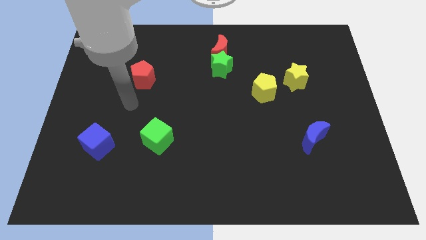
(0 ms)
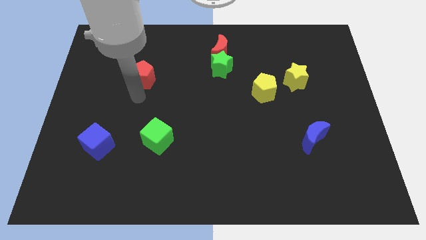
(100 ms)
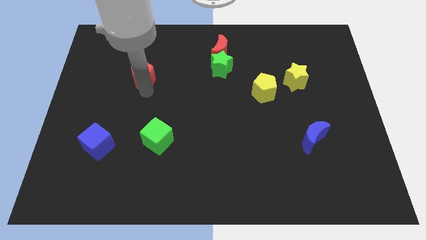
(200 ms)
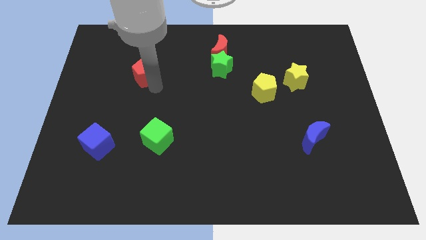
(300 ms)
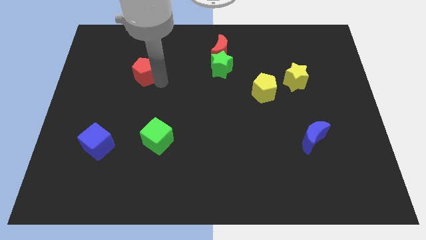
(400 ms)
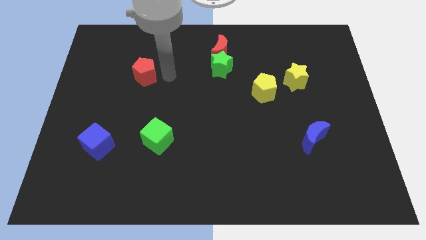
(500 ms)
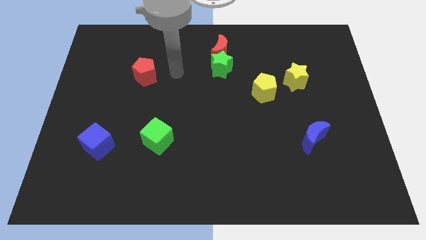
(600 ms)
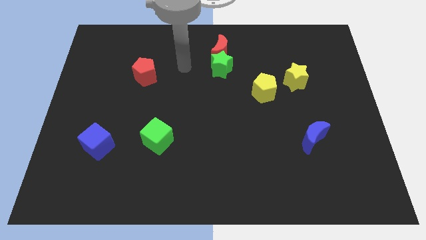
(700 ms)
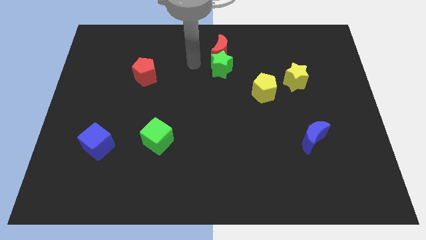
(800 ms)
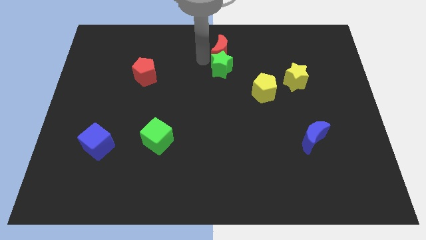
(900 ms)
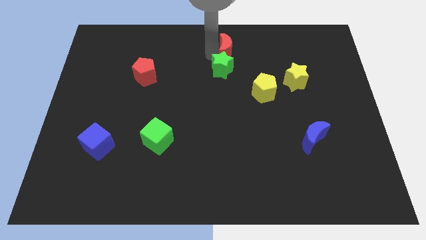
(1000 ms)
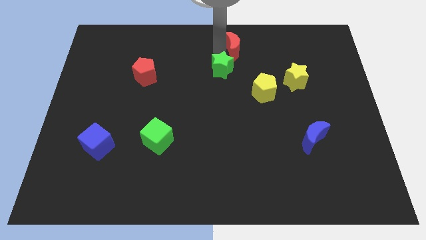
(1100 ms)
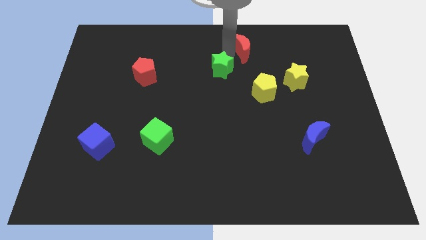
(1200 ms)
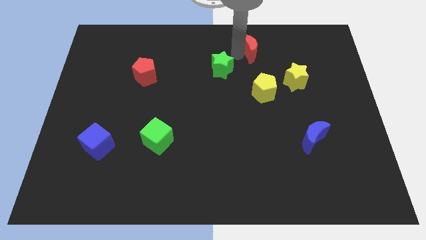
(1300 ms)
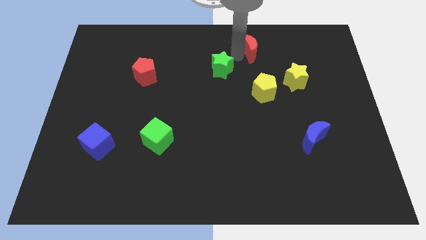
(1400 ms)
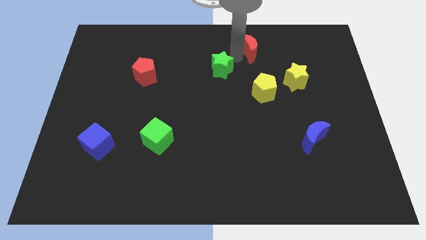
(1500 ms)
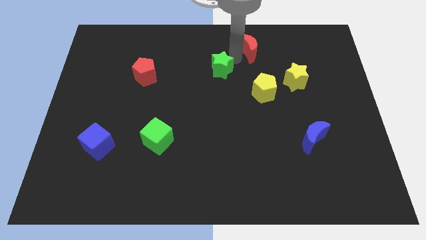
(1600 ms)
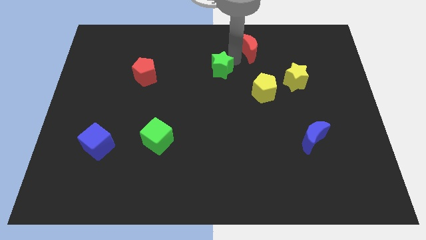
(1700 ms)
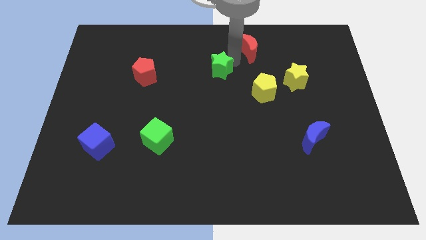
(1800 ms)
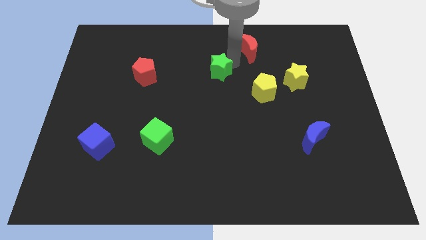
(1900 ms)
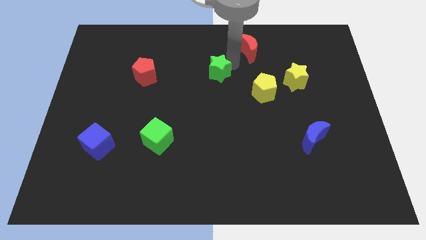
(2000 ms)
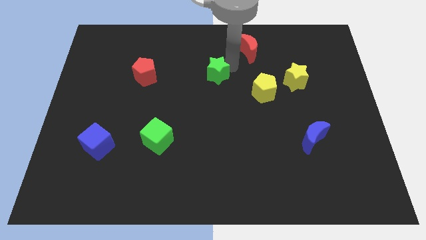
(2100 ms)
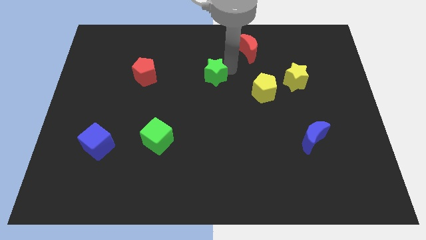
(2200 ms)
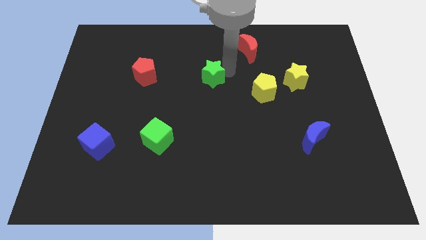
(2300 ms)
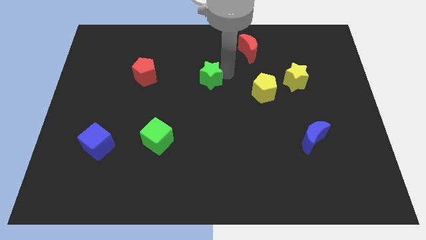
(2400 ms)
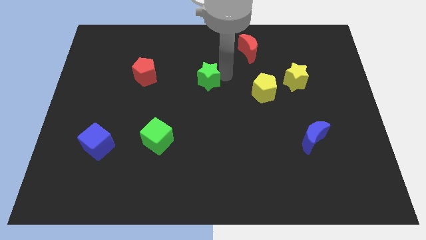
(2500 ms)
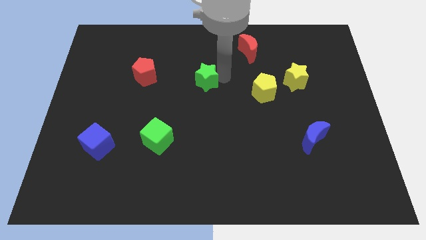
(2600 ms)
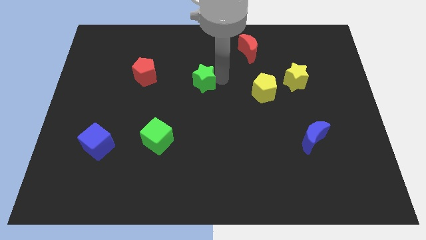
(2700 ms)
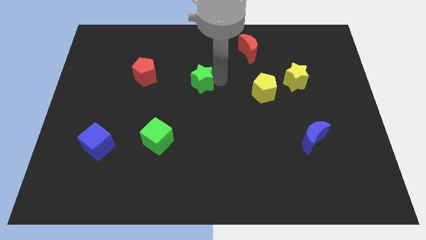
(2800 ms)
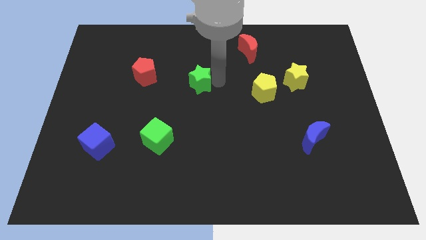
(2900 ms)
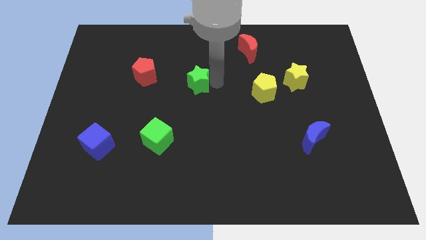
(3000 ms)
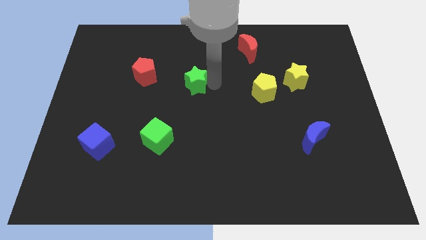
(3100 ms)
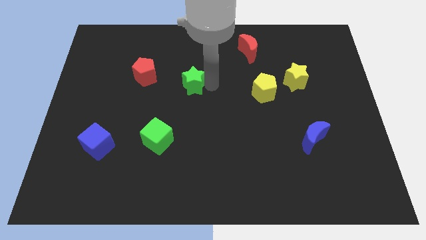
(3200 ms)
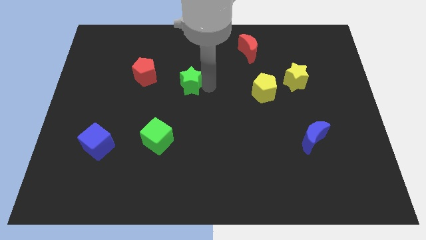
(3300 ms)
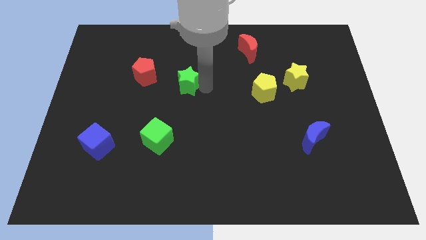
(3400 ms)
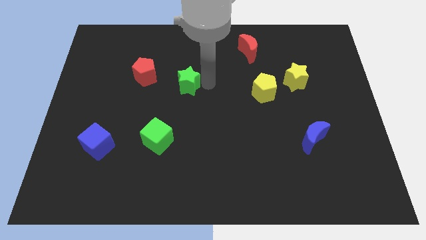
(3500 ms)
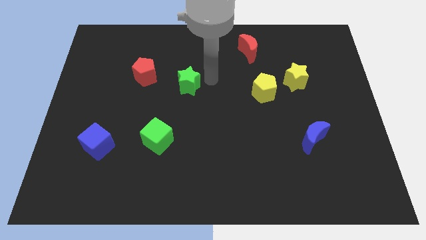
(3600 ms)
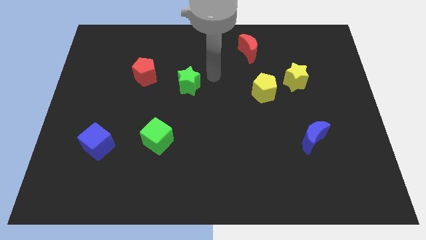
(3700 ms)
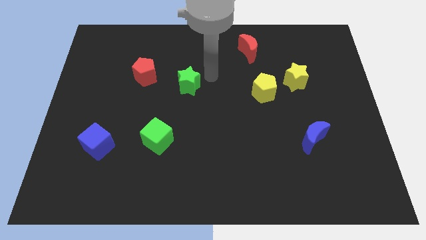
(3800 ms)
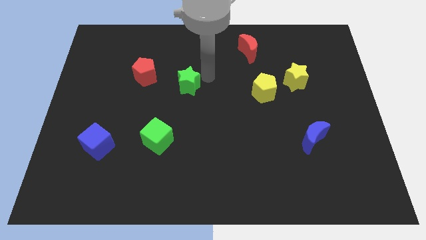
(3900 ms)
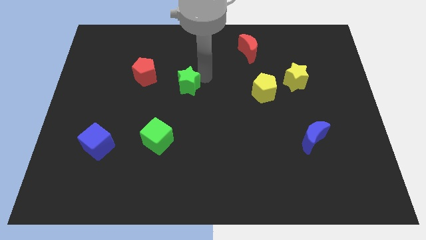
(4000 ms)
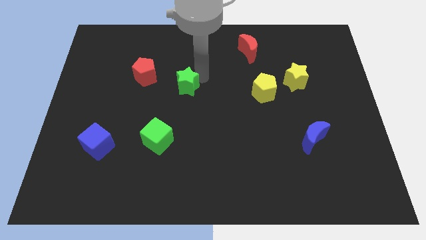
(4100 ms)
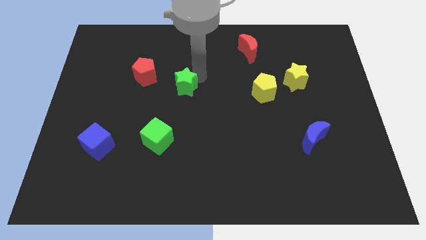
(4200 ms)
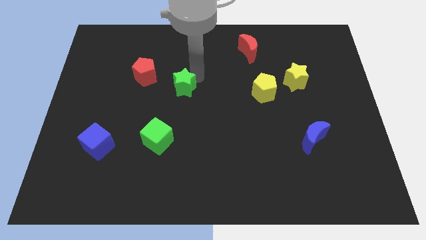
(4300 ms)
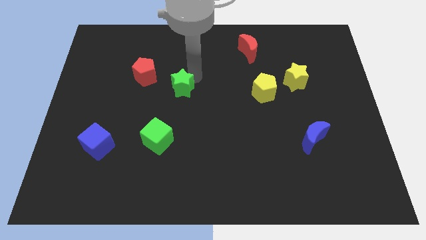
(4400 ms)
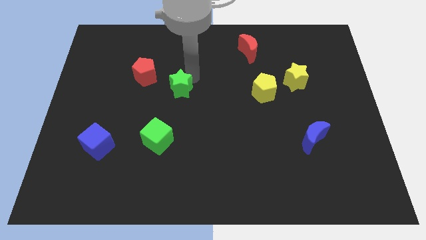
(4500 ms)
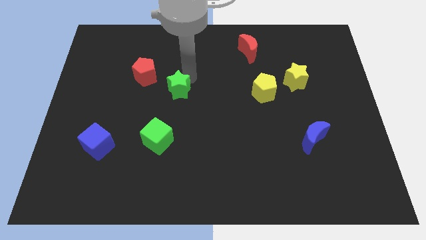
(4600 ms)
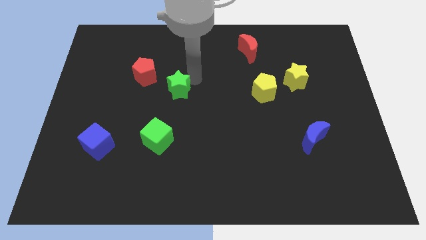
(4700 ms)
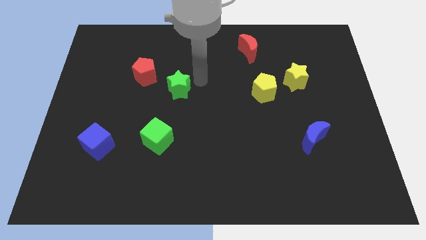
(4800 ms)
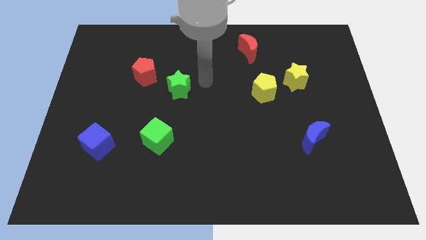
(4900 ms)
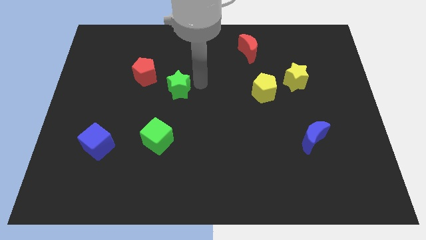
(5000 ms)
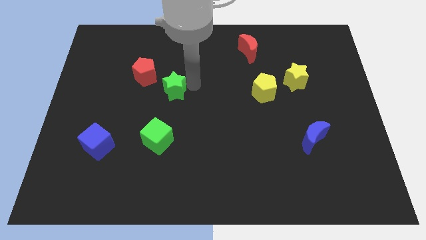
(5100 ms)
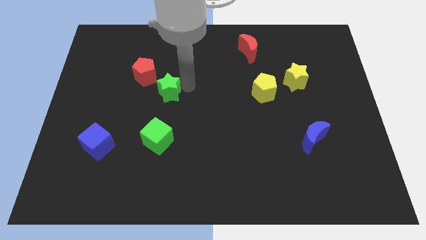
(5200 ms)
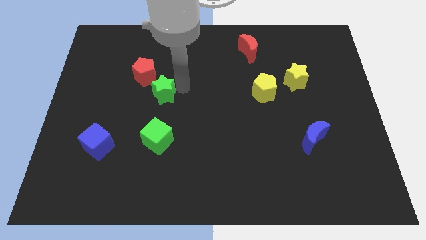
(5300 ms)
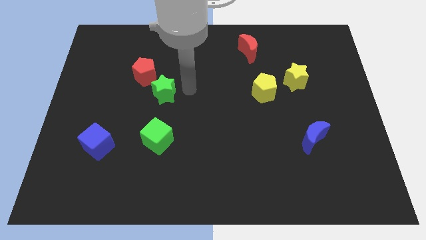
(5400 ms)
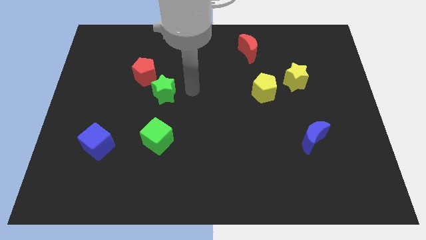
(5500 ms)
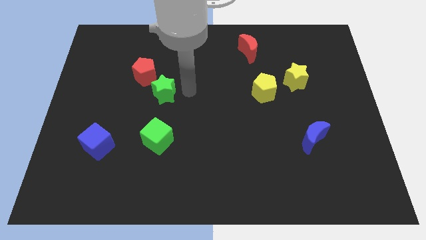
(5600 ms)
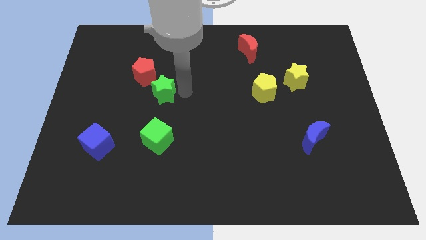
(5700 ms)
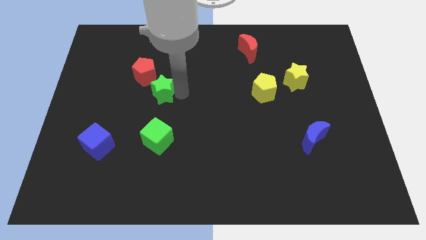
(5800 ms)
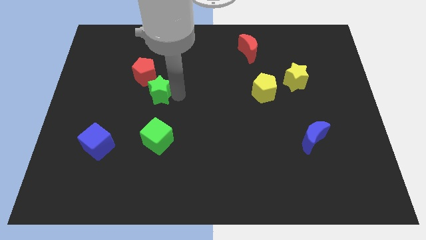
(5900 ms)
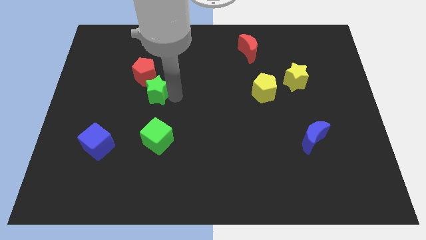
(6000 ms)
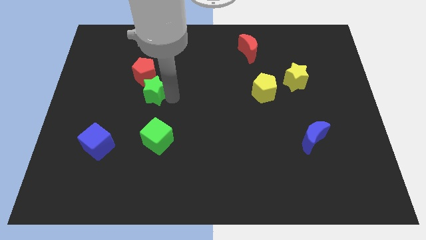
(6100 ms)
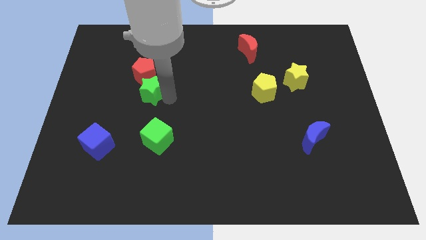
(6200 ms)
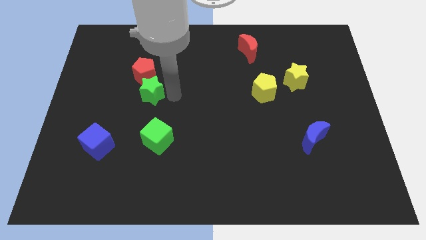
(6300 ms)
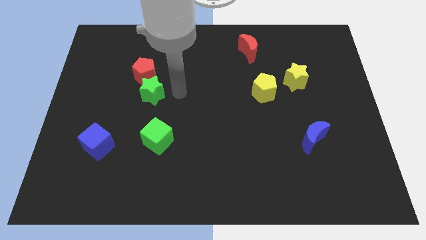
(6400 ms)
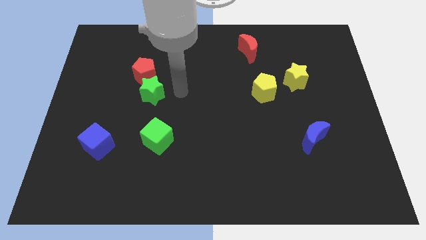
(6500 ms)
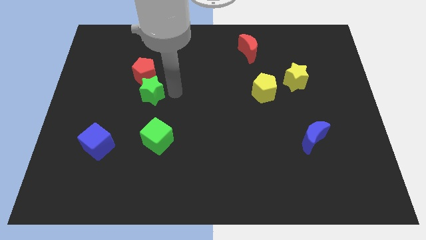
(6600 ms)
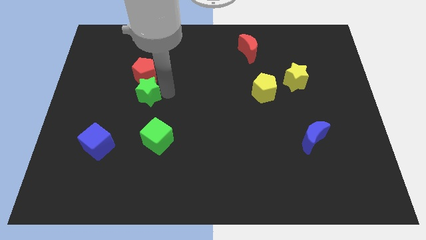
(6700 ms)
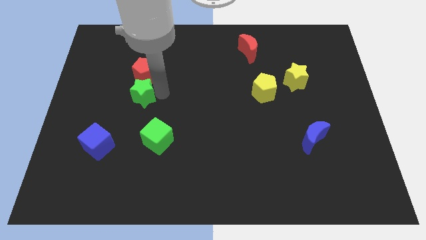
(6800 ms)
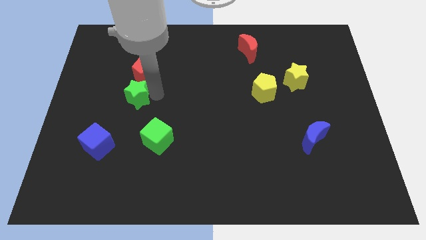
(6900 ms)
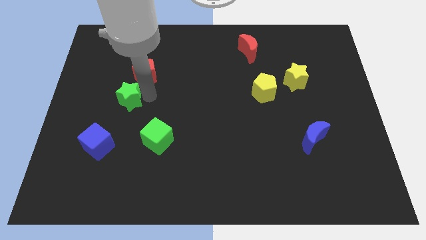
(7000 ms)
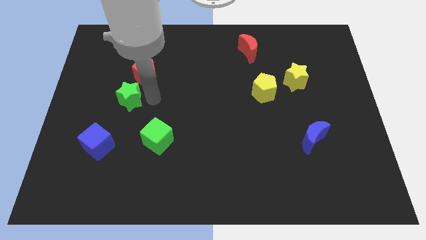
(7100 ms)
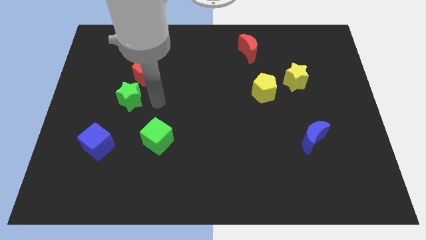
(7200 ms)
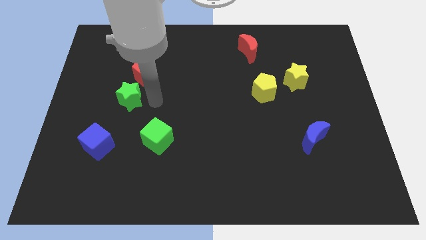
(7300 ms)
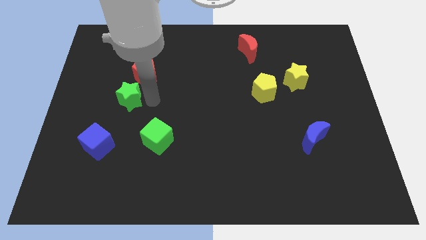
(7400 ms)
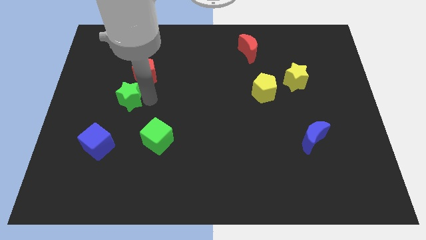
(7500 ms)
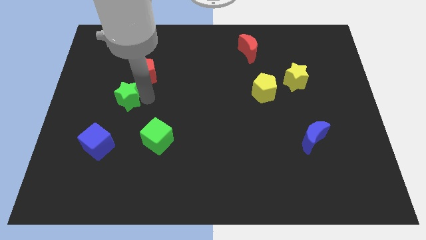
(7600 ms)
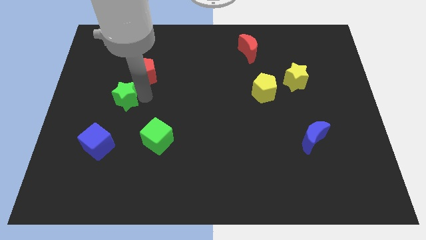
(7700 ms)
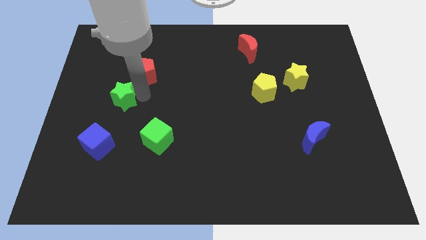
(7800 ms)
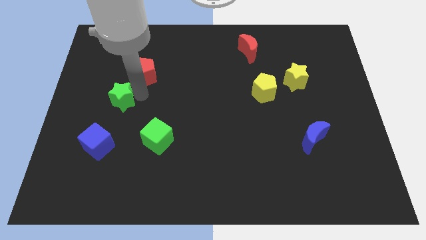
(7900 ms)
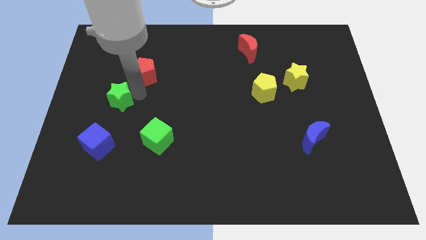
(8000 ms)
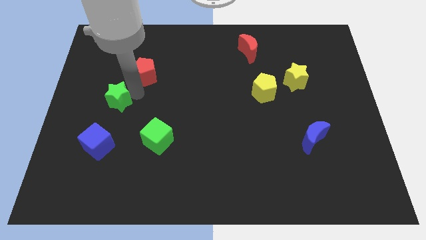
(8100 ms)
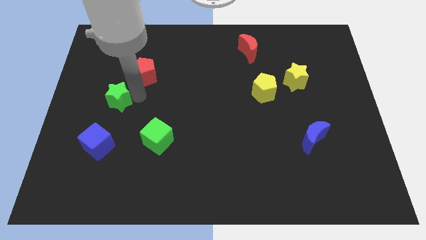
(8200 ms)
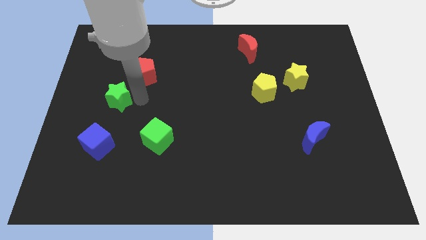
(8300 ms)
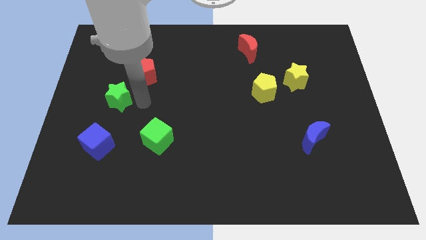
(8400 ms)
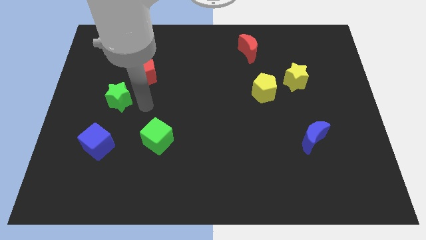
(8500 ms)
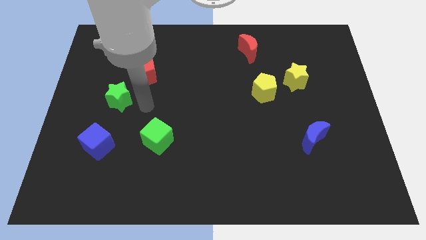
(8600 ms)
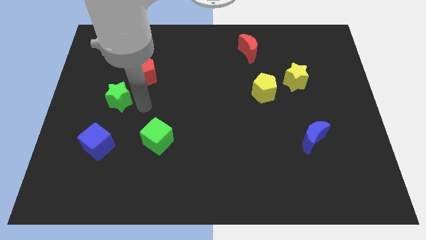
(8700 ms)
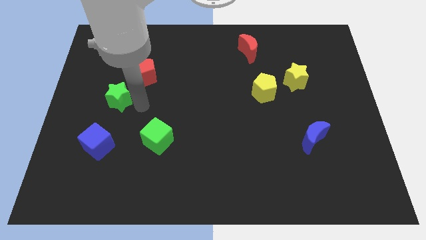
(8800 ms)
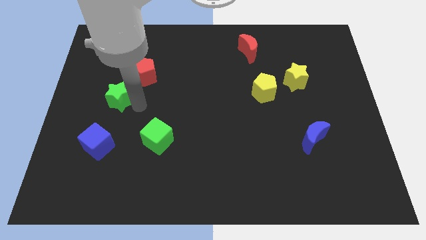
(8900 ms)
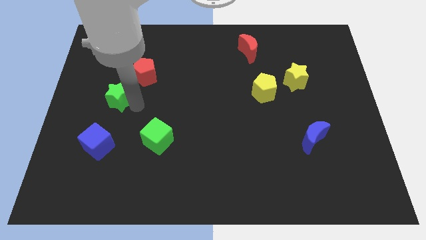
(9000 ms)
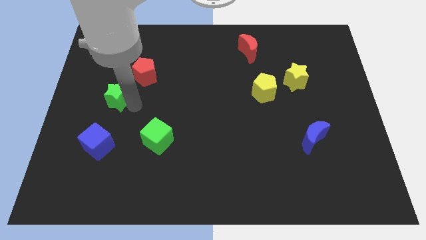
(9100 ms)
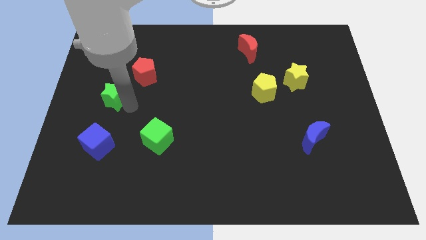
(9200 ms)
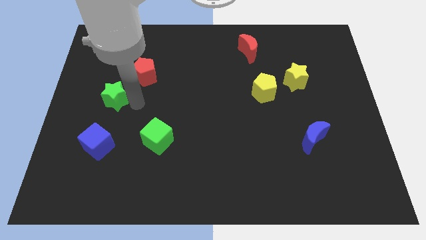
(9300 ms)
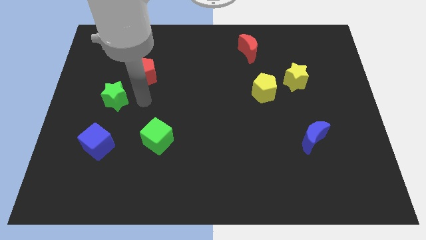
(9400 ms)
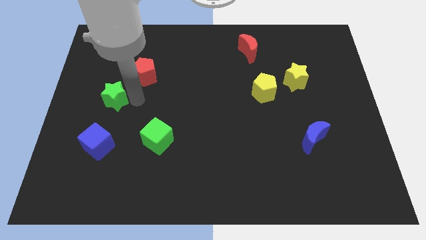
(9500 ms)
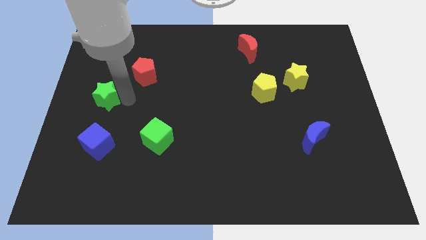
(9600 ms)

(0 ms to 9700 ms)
put the green star to the left side of the board
